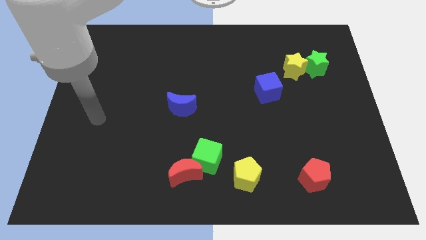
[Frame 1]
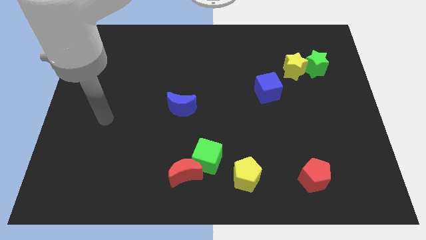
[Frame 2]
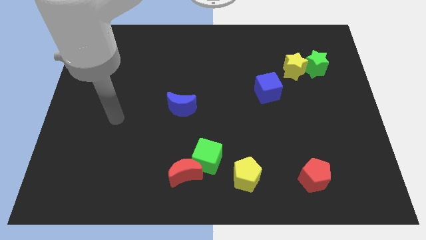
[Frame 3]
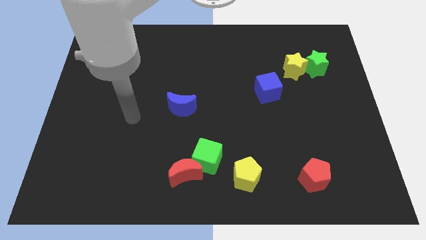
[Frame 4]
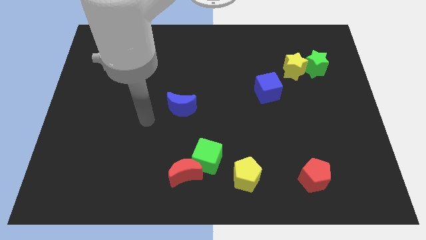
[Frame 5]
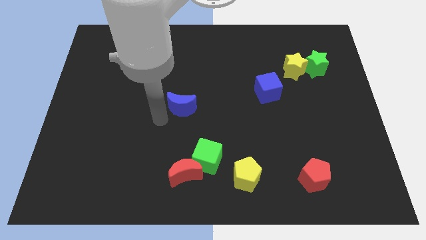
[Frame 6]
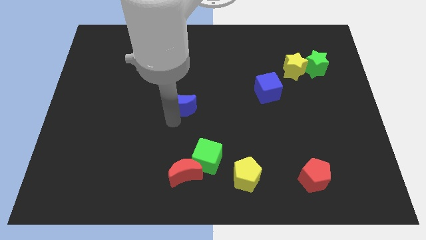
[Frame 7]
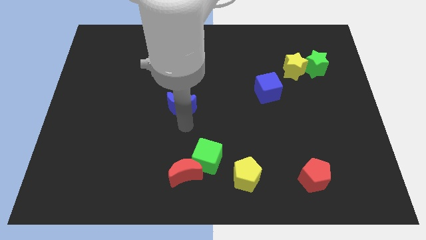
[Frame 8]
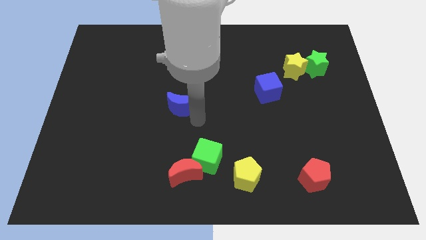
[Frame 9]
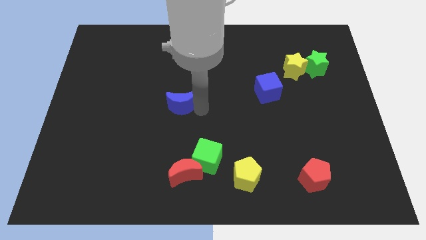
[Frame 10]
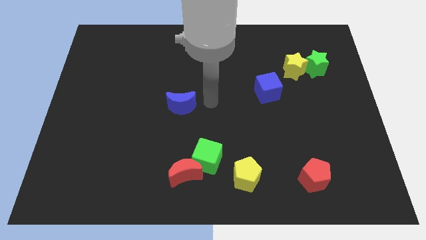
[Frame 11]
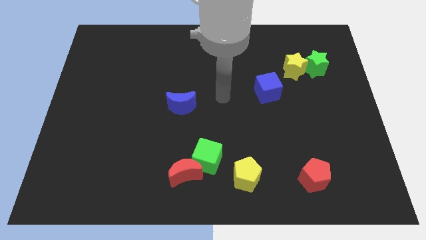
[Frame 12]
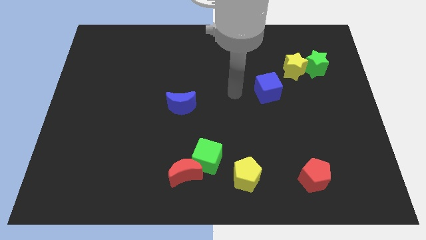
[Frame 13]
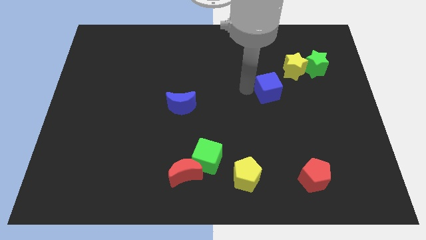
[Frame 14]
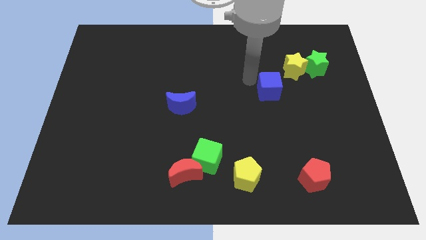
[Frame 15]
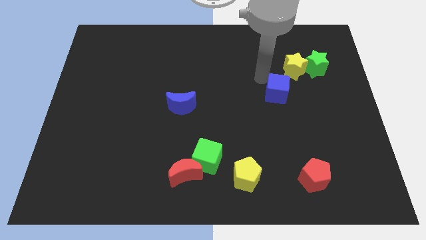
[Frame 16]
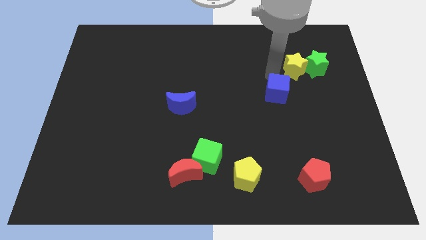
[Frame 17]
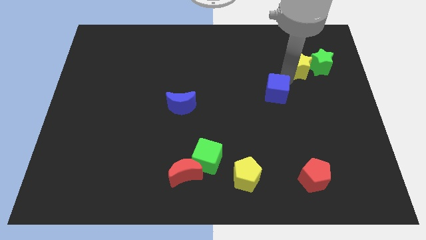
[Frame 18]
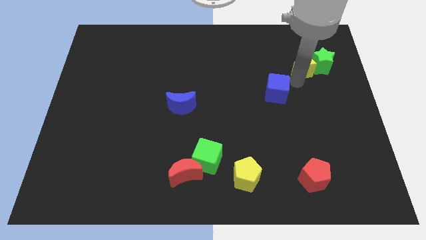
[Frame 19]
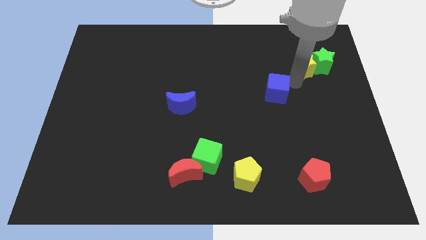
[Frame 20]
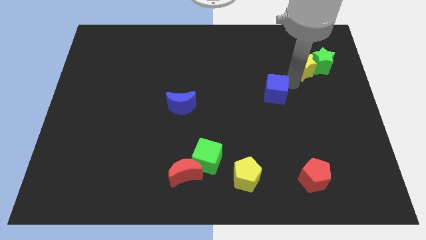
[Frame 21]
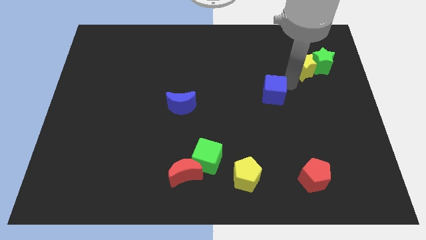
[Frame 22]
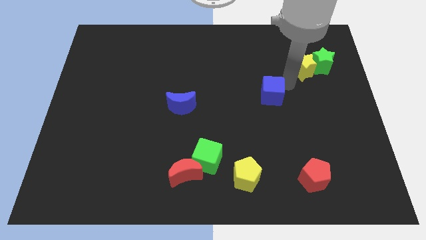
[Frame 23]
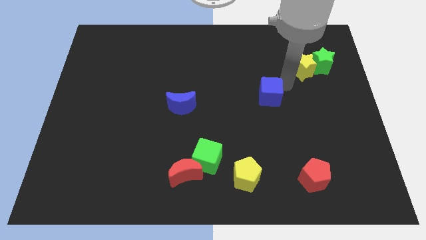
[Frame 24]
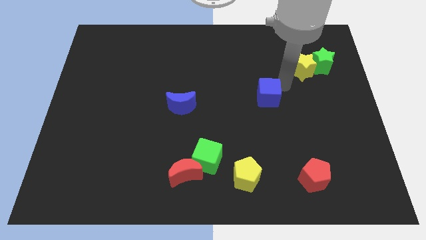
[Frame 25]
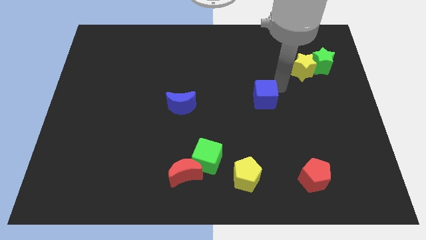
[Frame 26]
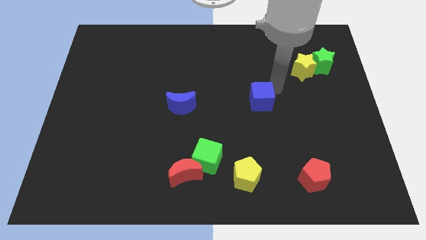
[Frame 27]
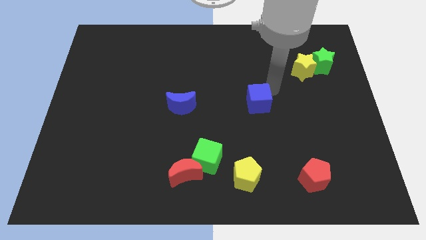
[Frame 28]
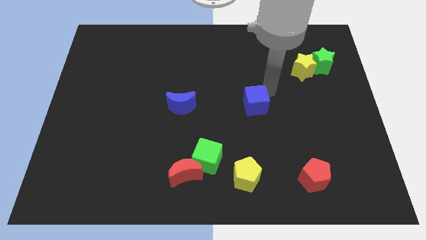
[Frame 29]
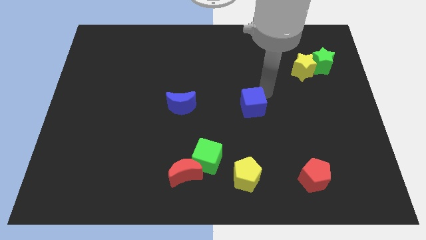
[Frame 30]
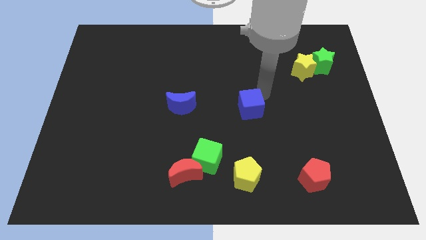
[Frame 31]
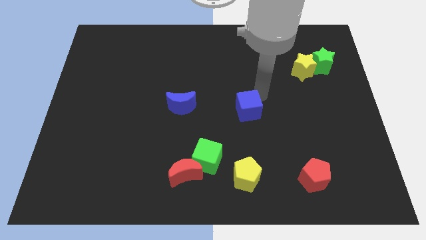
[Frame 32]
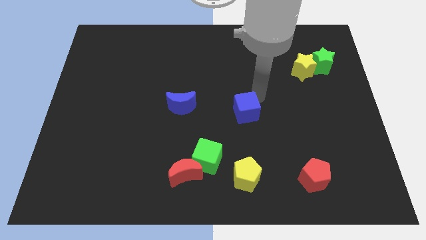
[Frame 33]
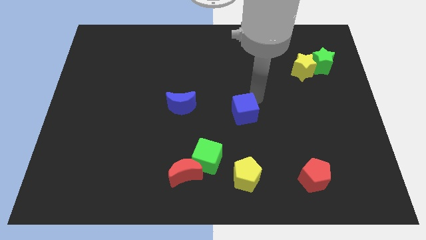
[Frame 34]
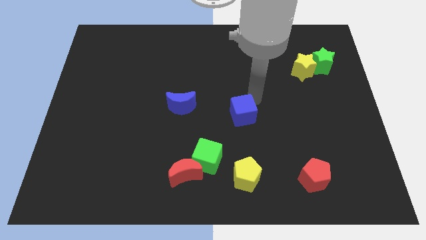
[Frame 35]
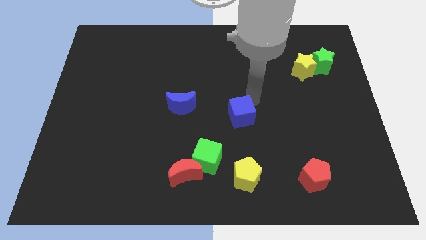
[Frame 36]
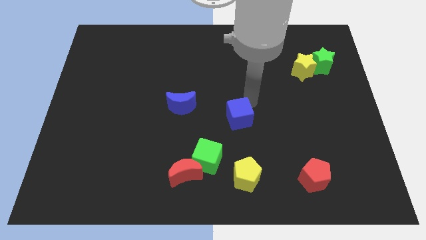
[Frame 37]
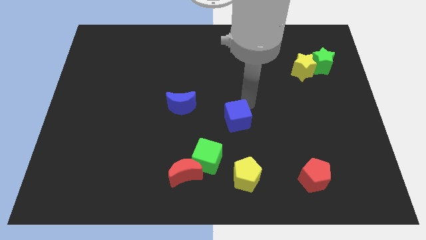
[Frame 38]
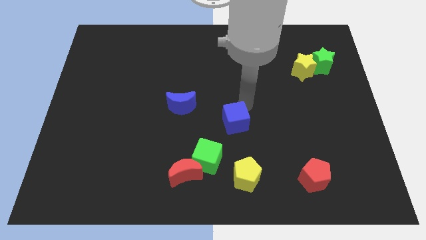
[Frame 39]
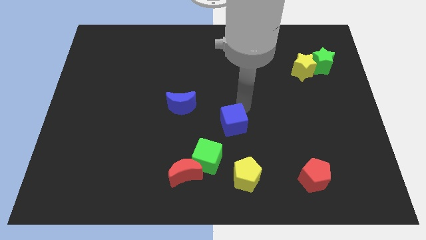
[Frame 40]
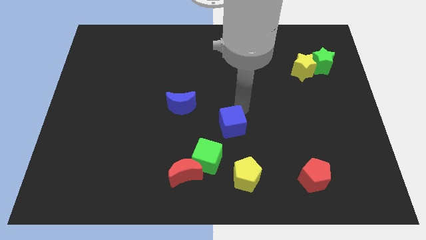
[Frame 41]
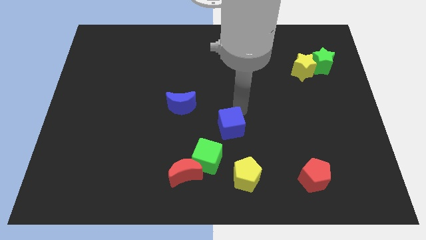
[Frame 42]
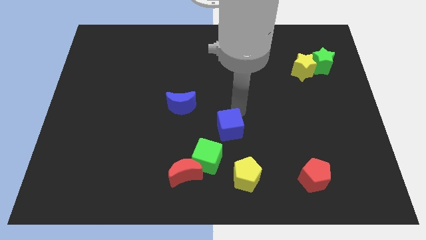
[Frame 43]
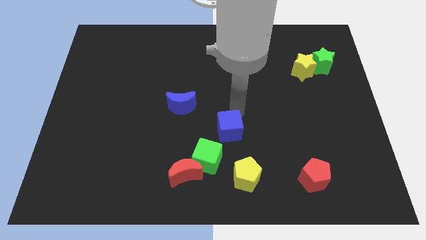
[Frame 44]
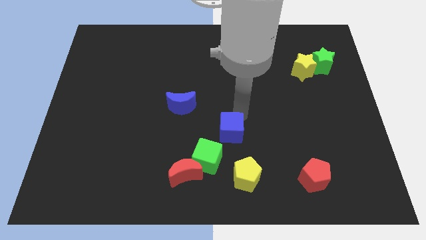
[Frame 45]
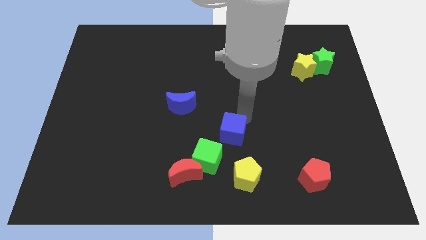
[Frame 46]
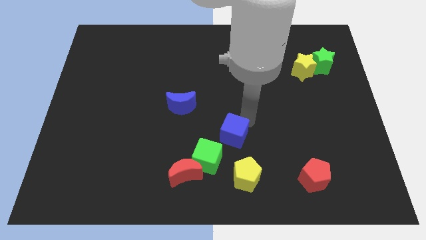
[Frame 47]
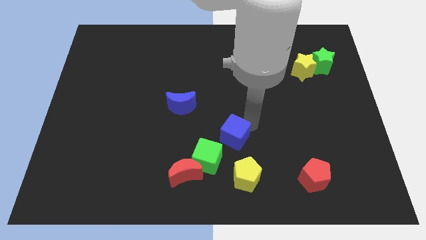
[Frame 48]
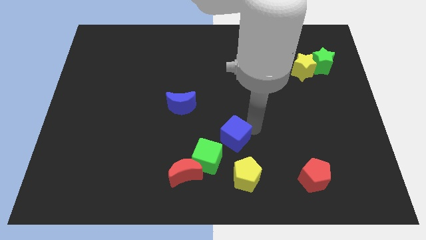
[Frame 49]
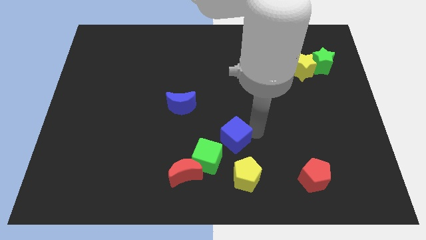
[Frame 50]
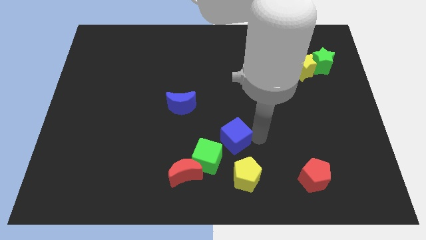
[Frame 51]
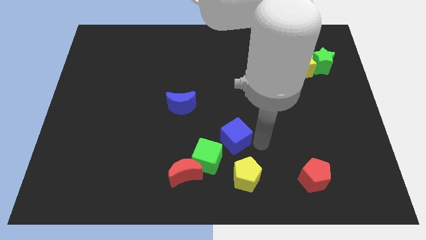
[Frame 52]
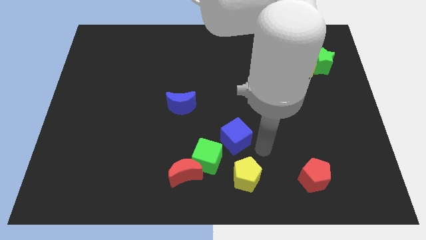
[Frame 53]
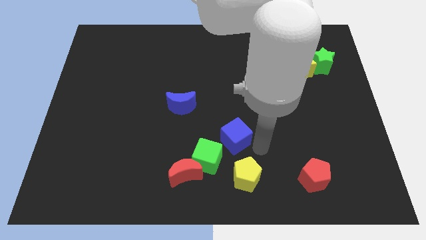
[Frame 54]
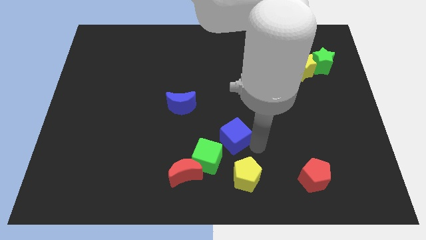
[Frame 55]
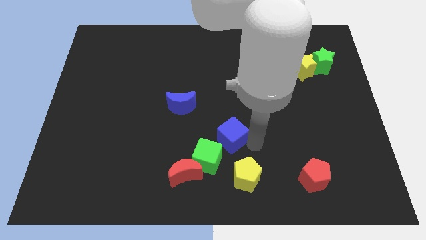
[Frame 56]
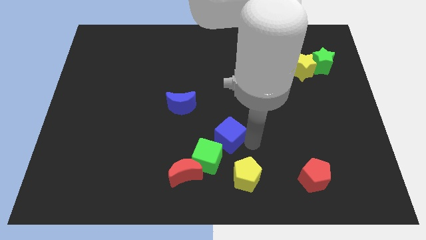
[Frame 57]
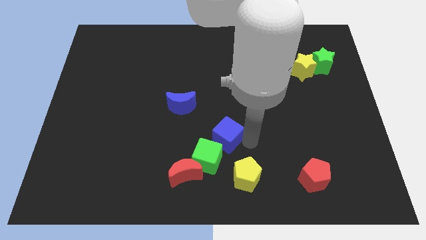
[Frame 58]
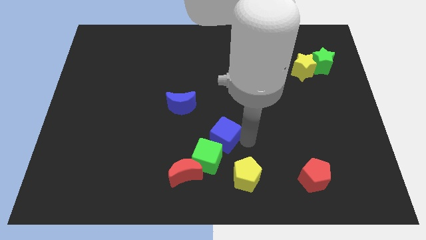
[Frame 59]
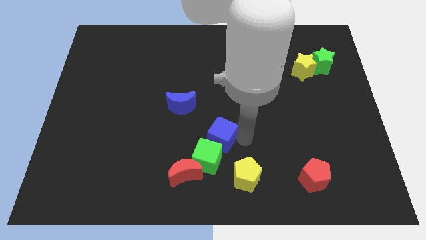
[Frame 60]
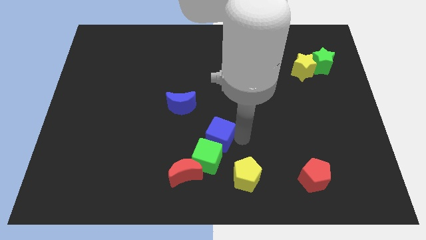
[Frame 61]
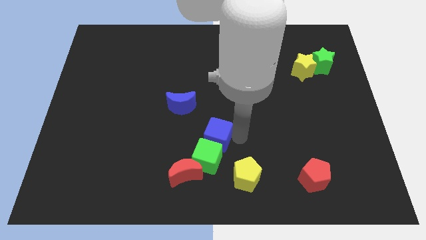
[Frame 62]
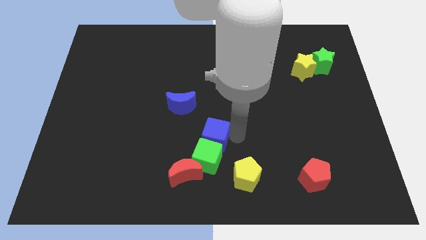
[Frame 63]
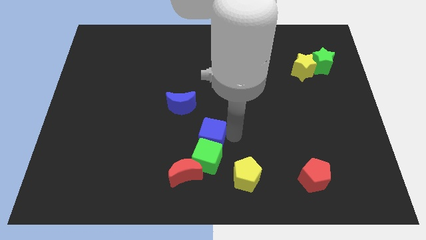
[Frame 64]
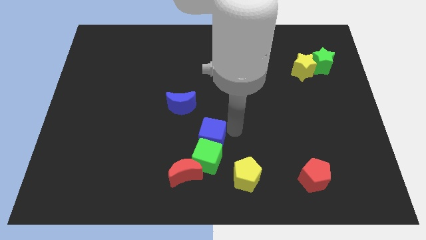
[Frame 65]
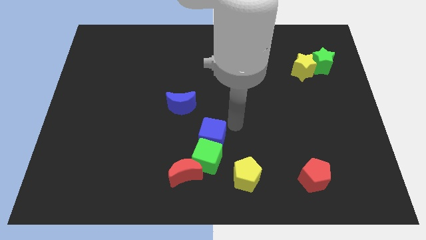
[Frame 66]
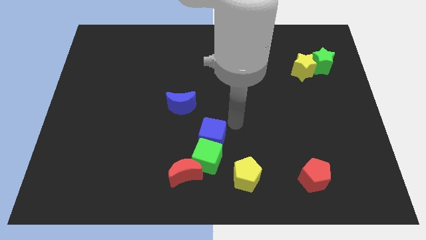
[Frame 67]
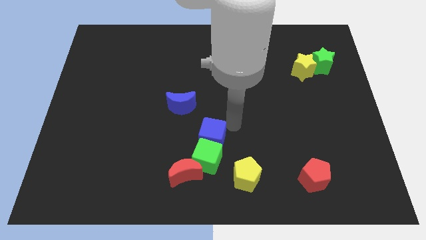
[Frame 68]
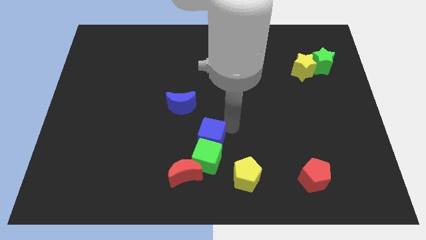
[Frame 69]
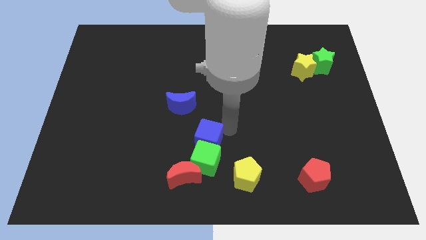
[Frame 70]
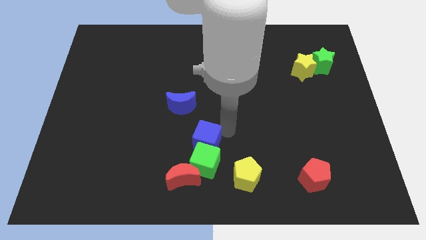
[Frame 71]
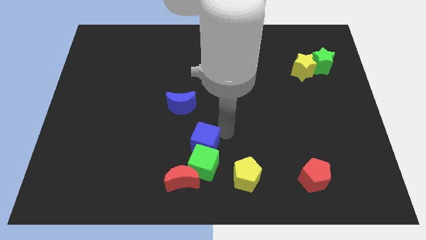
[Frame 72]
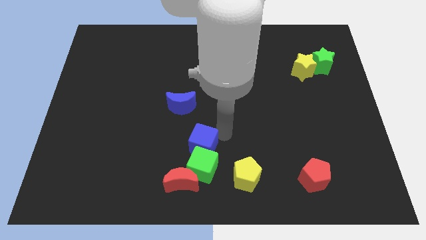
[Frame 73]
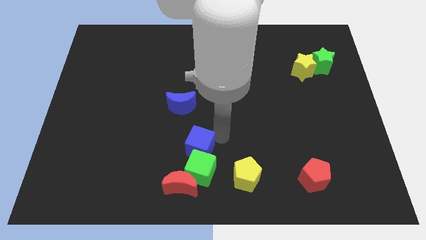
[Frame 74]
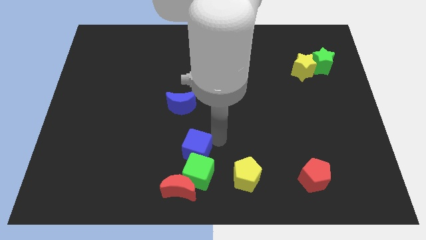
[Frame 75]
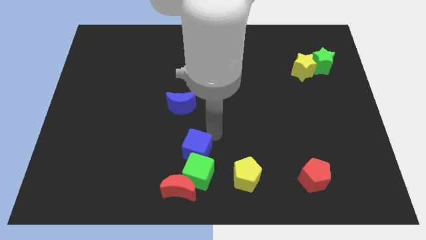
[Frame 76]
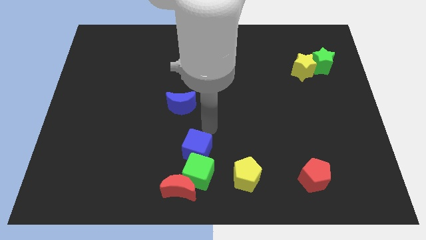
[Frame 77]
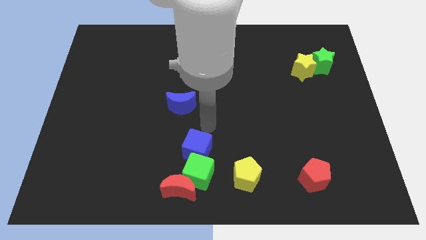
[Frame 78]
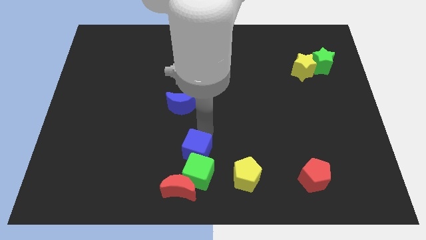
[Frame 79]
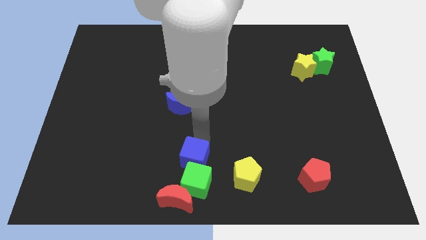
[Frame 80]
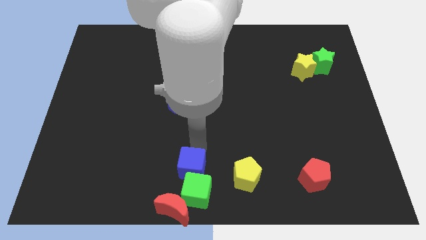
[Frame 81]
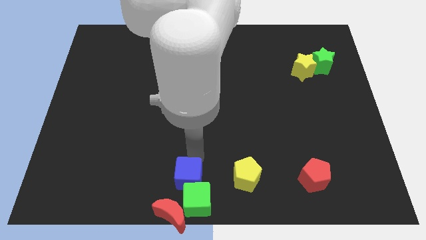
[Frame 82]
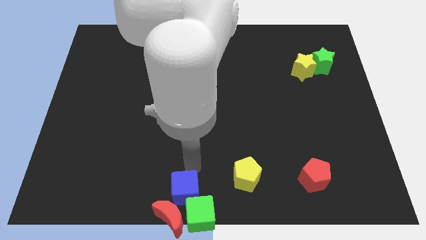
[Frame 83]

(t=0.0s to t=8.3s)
move the blue cube to the red moon
